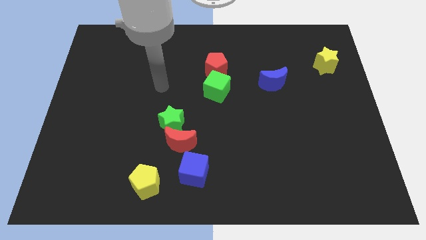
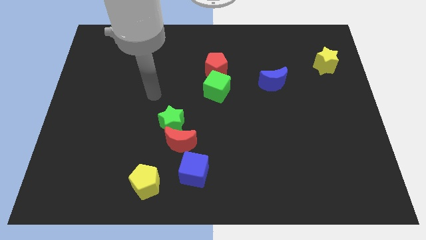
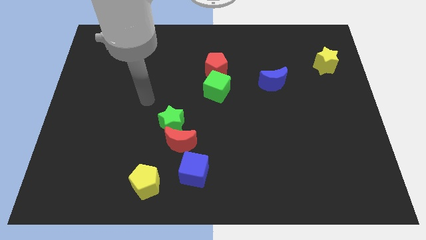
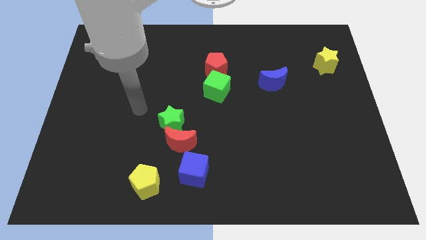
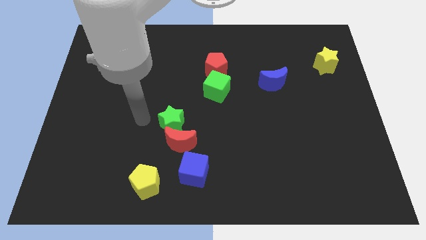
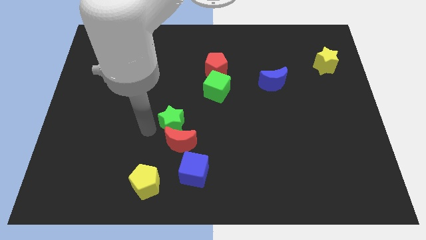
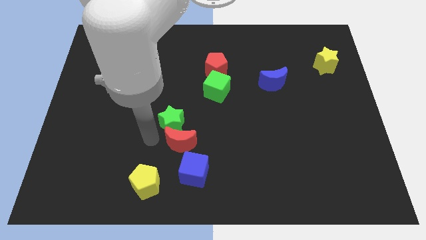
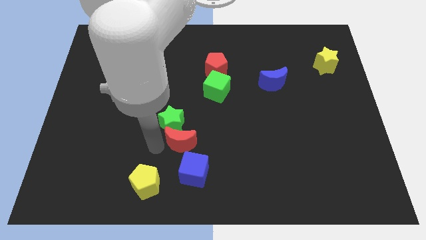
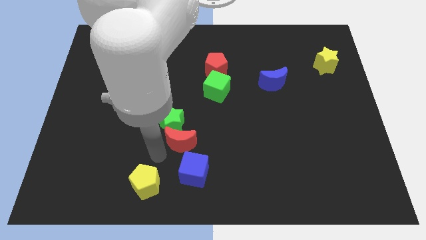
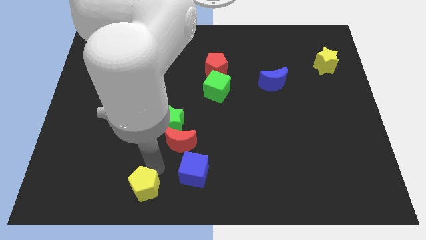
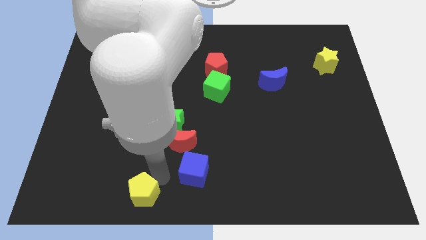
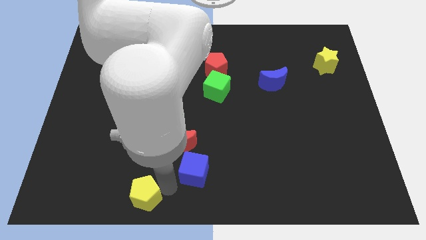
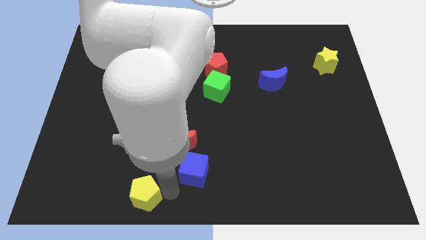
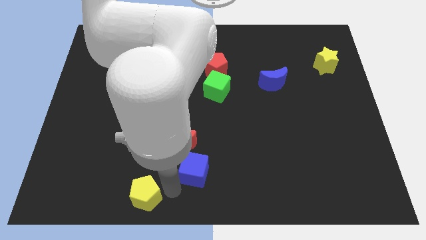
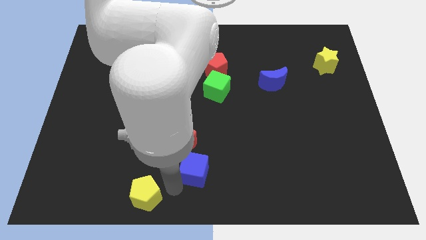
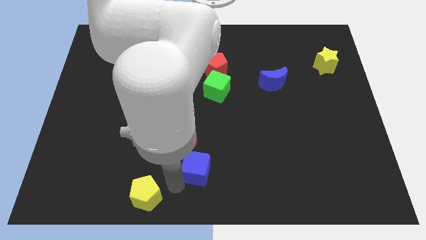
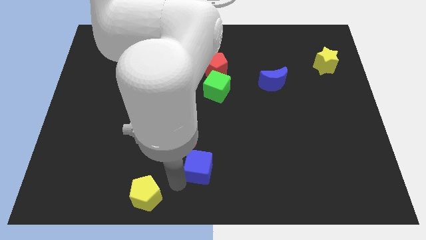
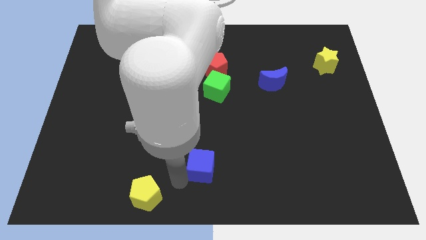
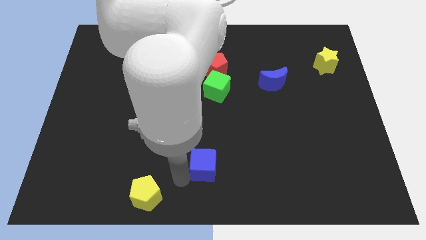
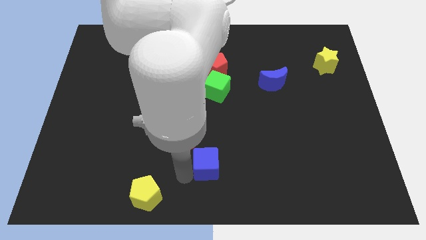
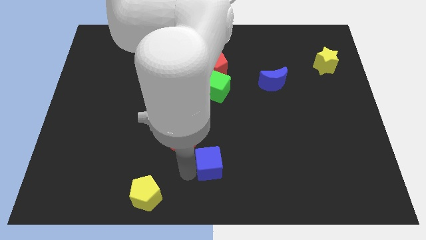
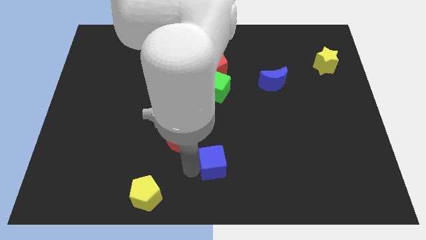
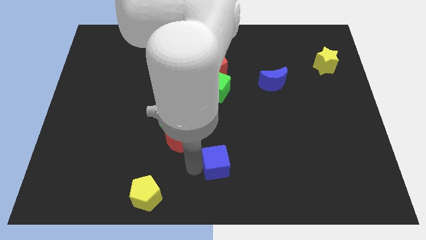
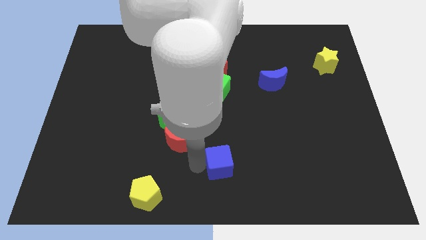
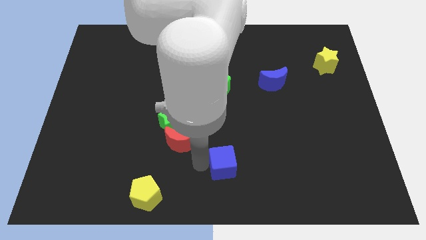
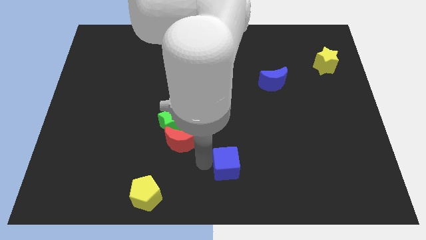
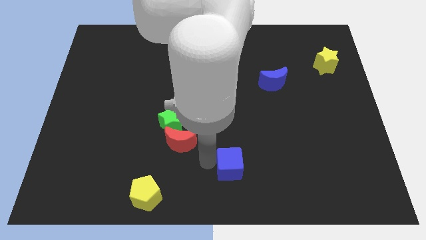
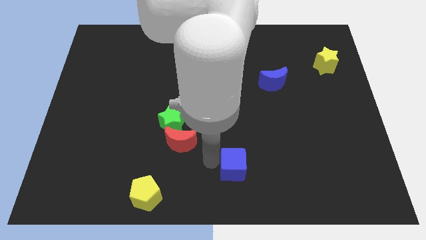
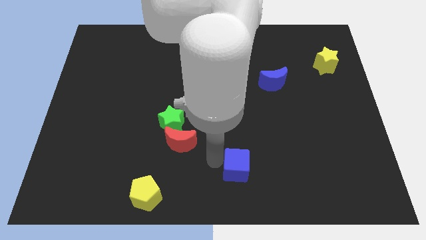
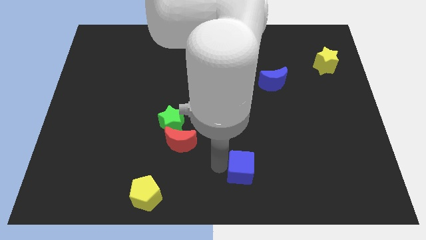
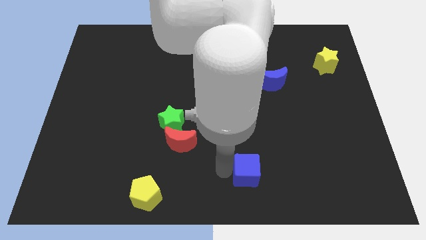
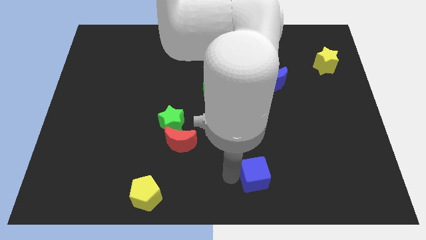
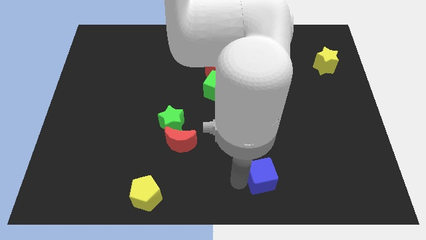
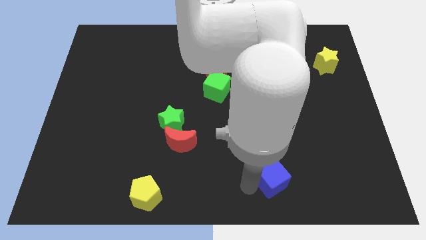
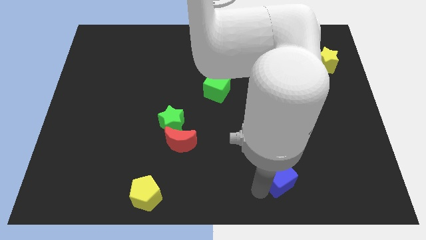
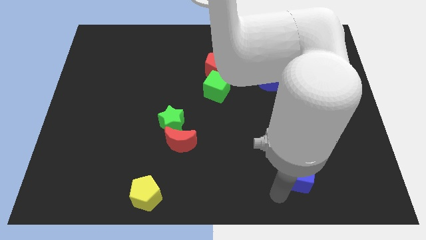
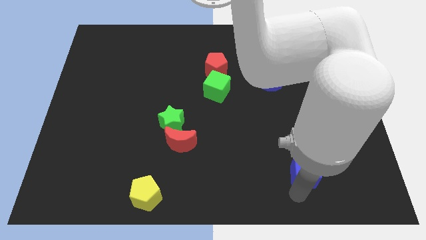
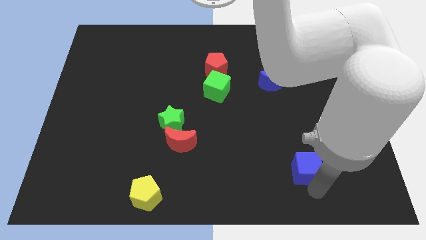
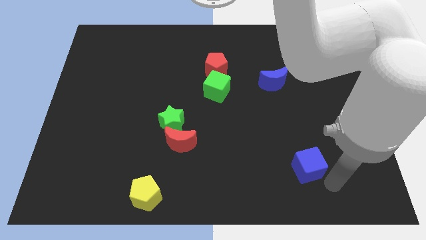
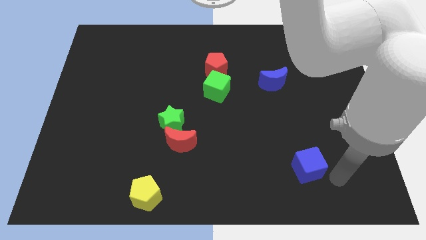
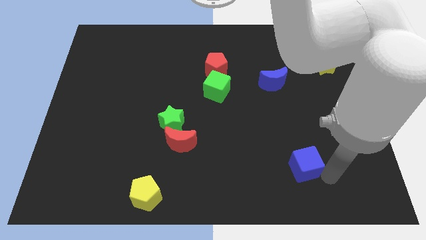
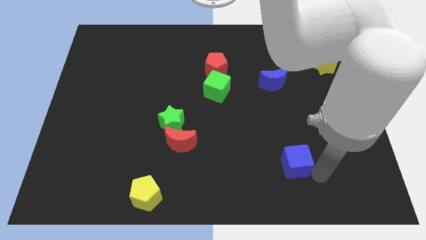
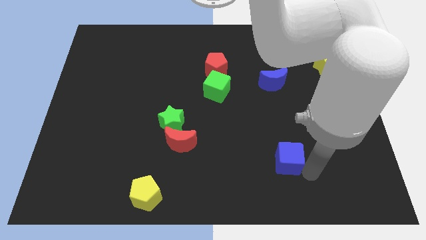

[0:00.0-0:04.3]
move the blue cube upwards and right somewhat

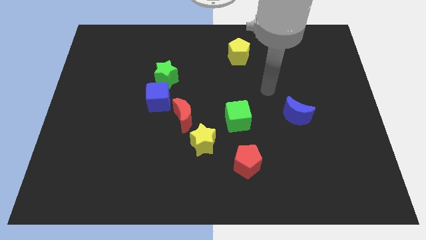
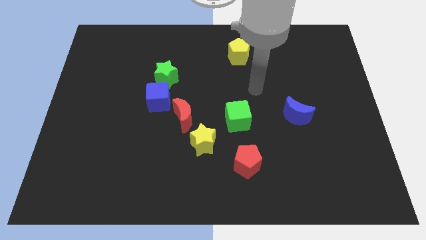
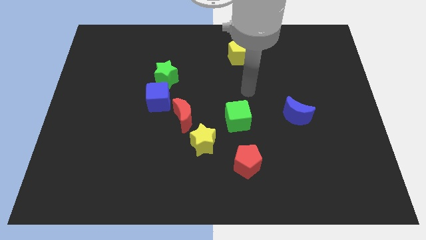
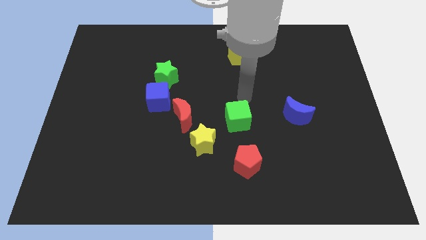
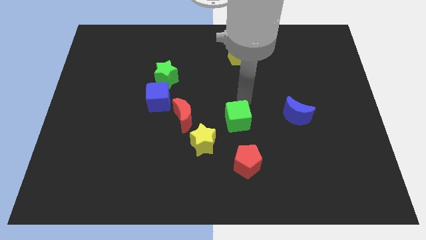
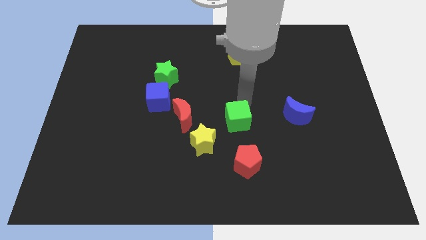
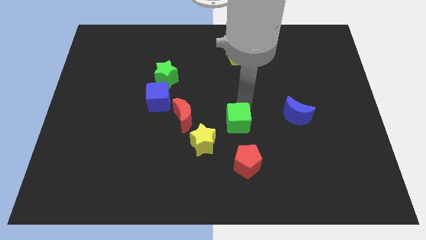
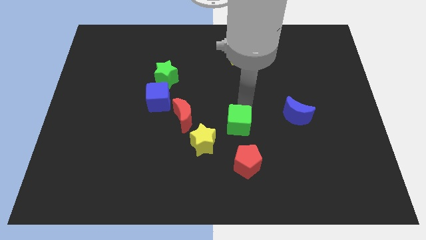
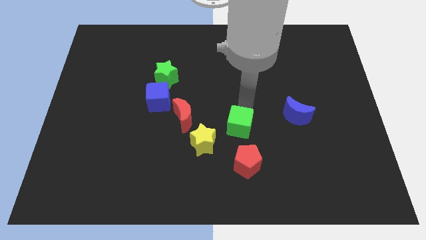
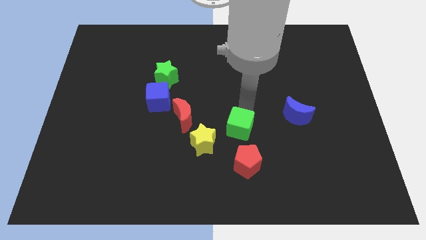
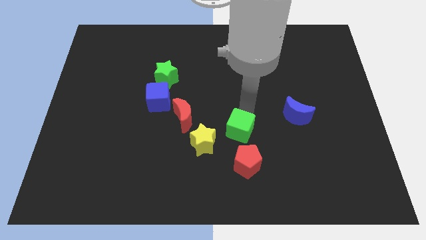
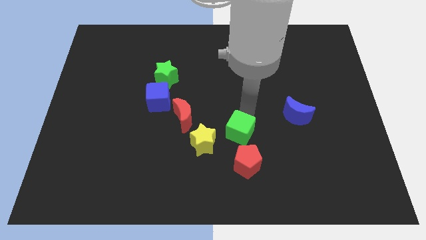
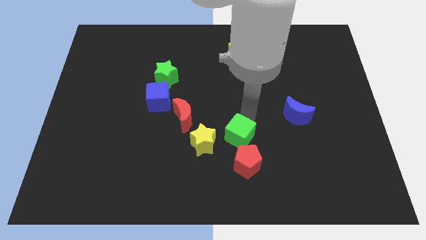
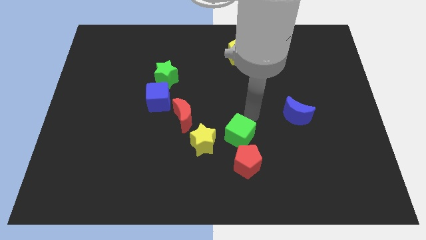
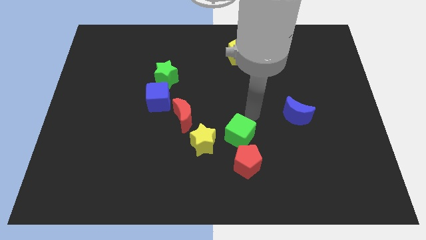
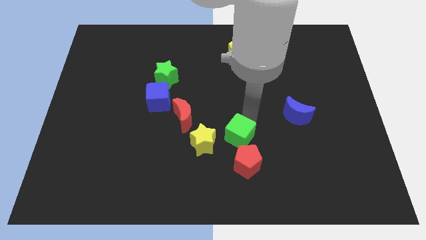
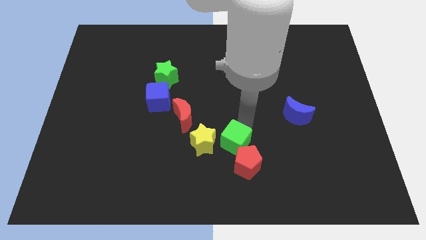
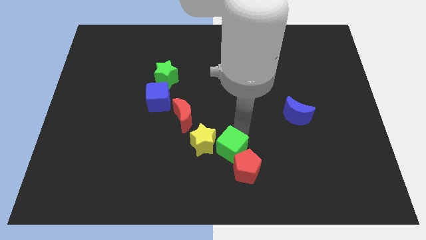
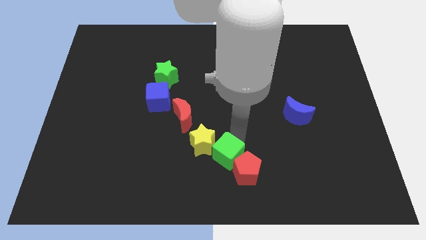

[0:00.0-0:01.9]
move the green cube a bit downwards and then to the left

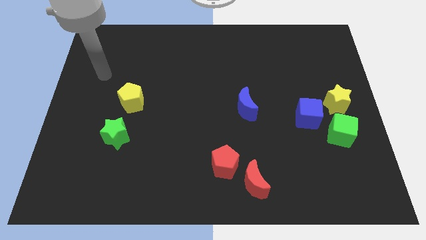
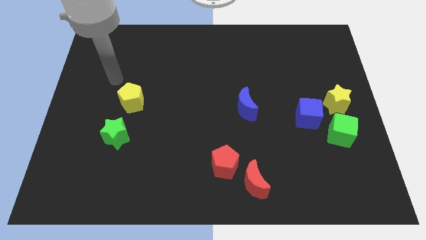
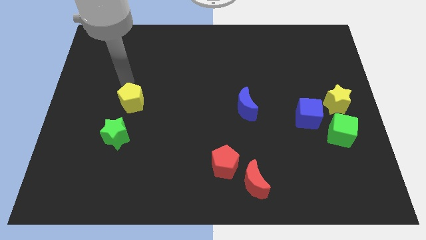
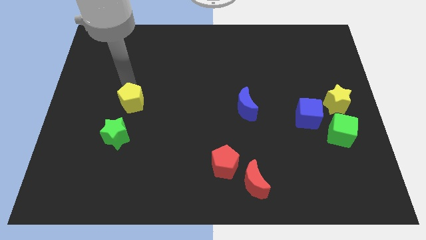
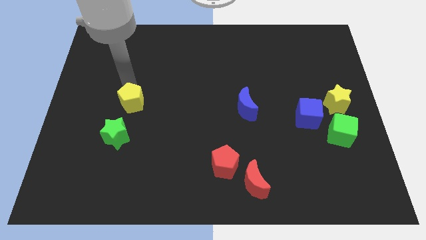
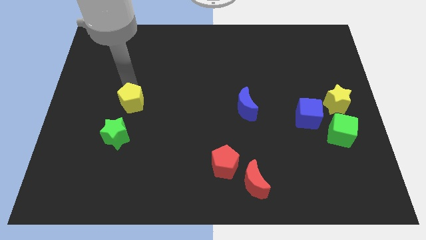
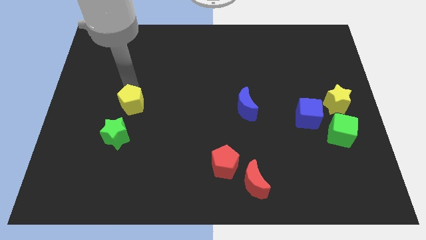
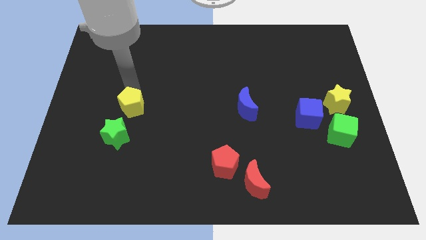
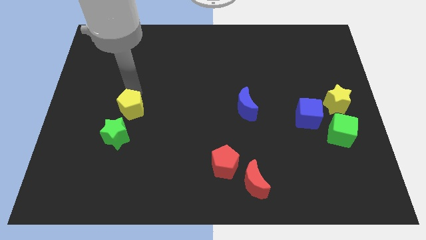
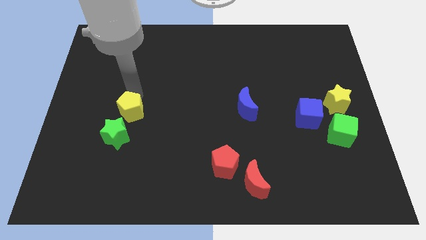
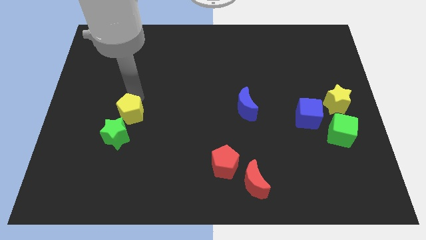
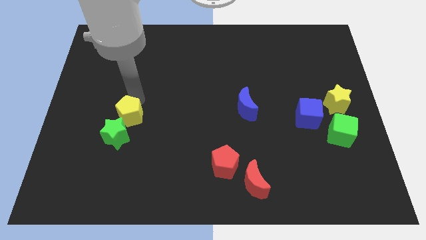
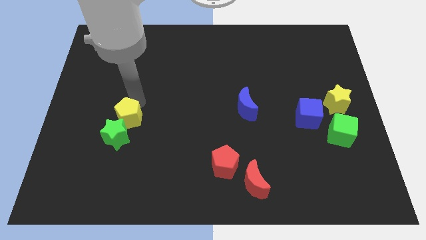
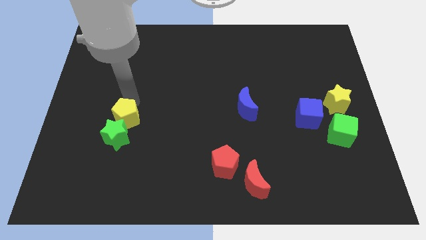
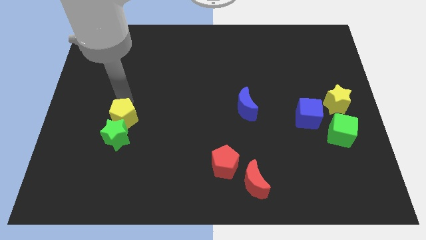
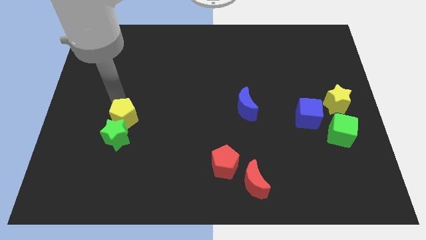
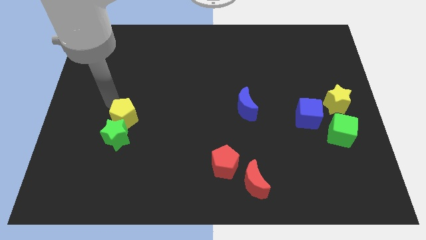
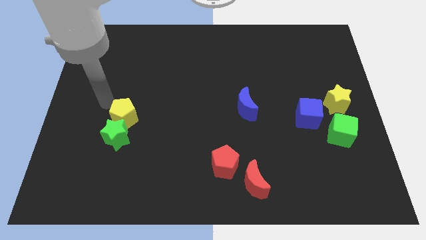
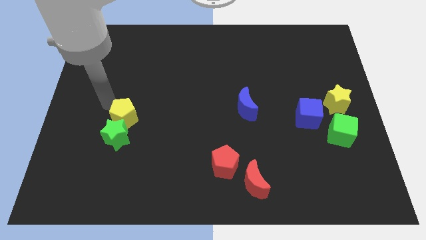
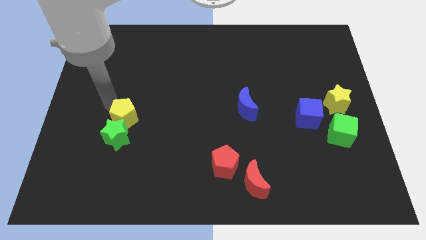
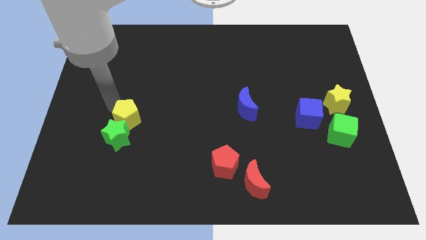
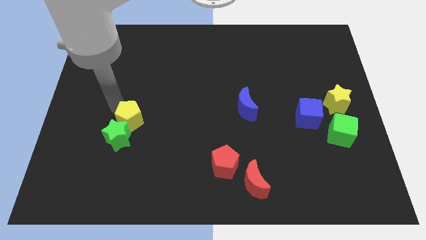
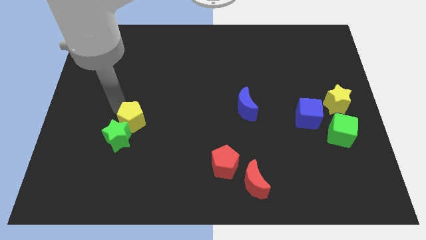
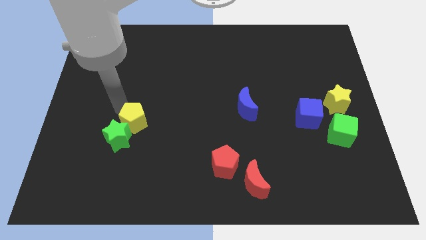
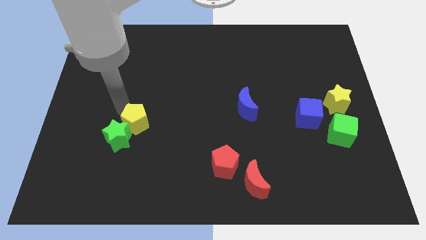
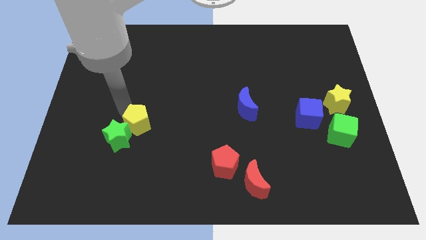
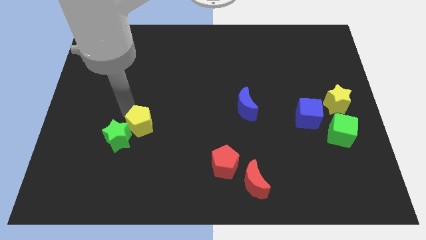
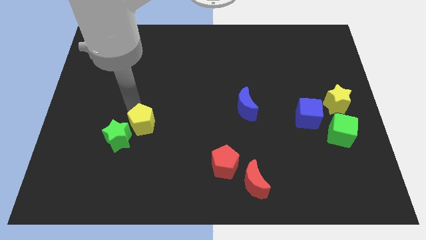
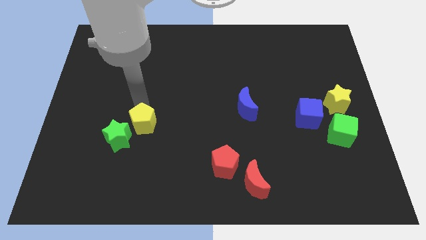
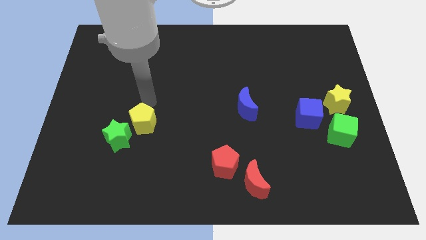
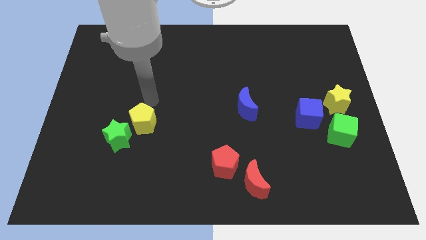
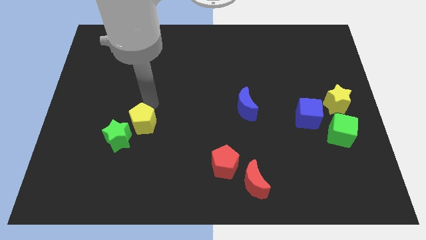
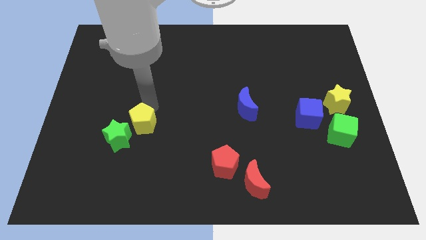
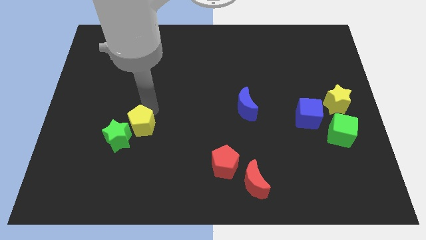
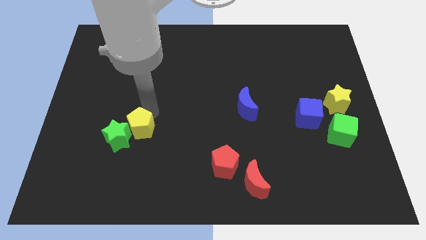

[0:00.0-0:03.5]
move the yellow pentagon a little bit down
